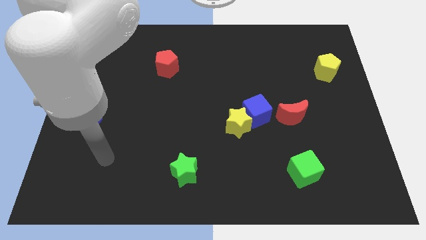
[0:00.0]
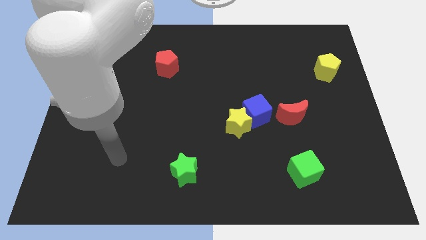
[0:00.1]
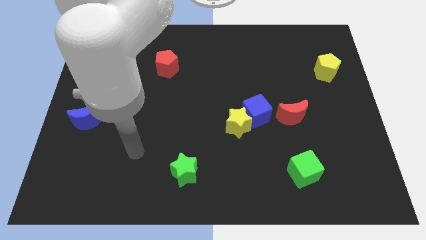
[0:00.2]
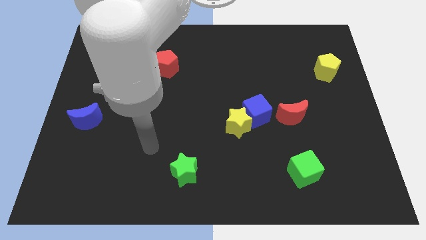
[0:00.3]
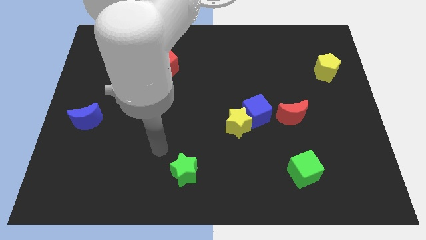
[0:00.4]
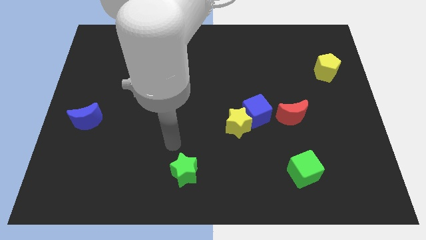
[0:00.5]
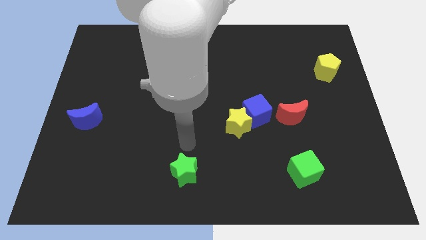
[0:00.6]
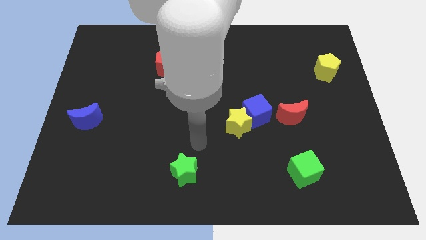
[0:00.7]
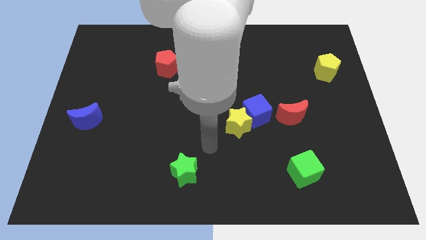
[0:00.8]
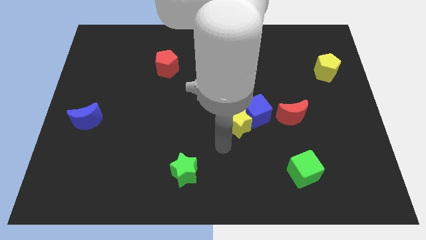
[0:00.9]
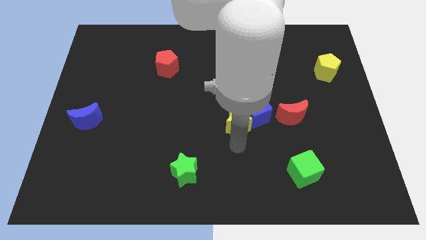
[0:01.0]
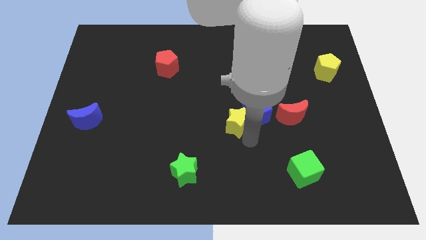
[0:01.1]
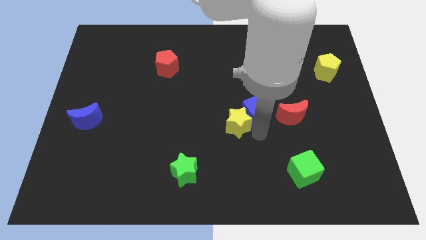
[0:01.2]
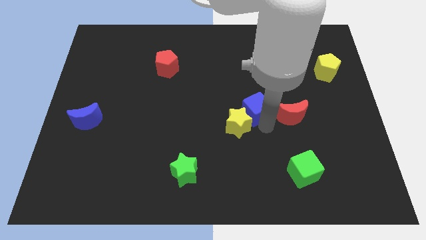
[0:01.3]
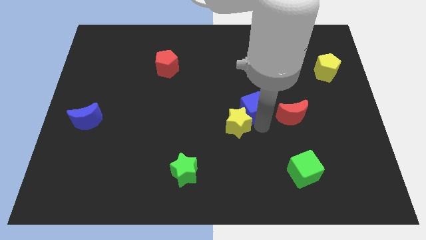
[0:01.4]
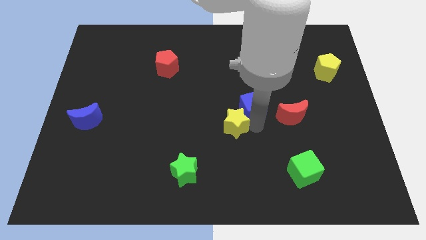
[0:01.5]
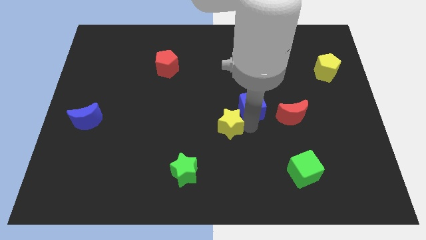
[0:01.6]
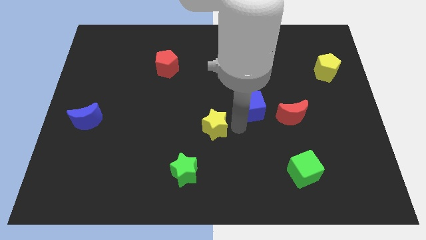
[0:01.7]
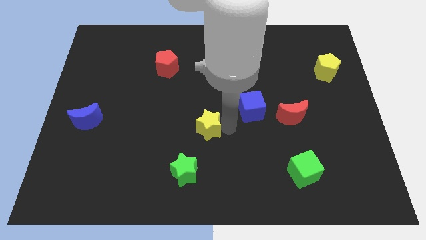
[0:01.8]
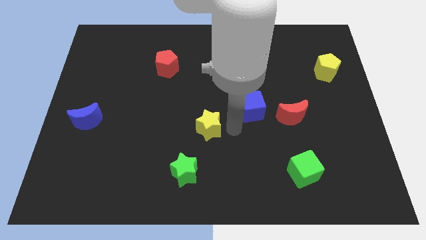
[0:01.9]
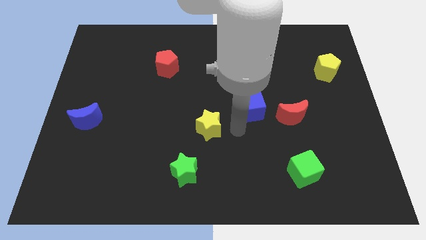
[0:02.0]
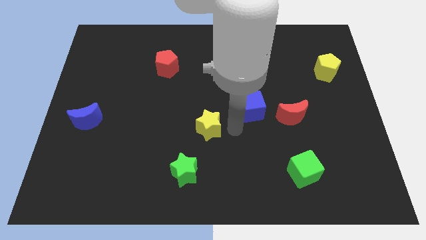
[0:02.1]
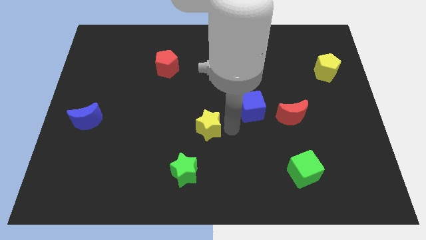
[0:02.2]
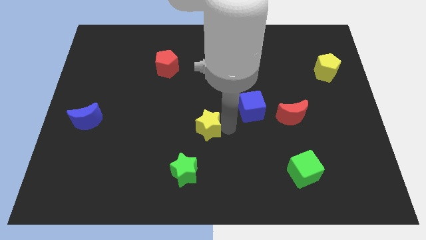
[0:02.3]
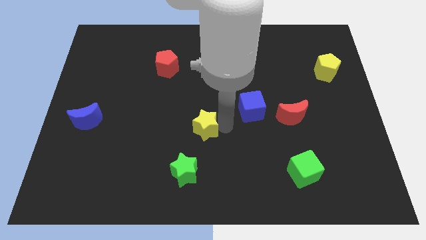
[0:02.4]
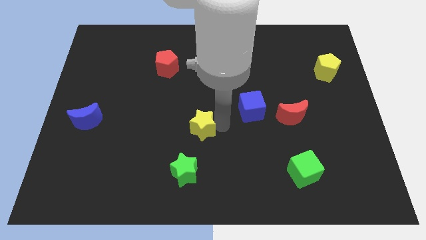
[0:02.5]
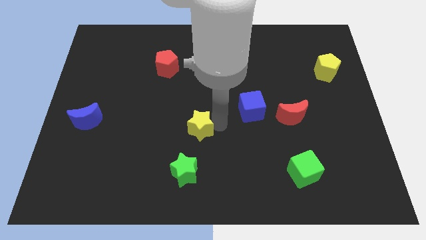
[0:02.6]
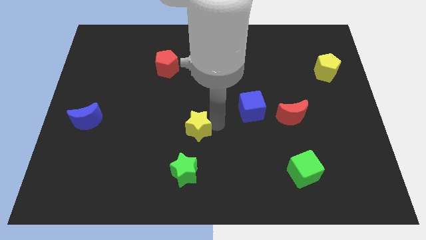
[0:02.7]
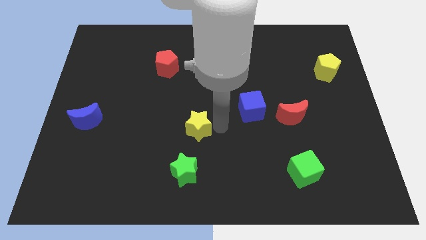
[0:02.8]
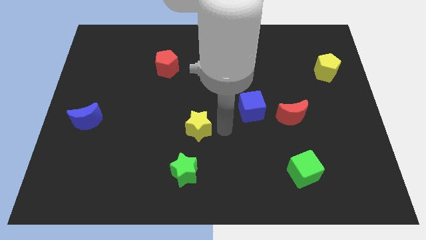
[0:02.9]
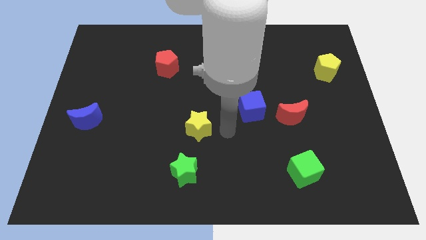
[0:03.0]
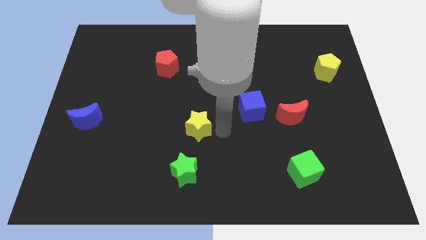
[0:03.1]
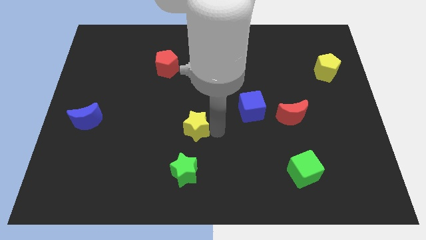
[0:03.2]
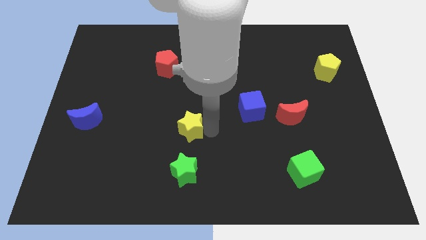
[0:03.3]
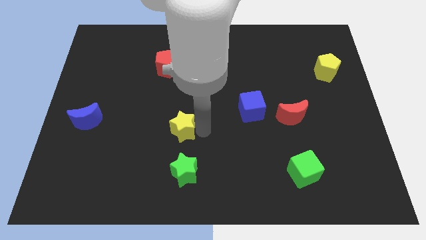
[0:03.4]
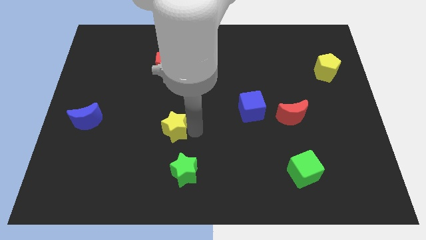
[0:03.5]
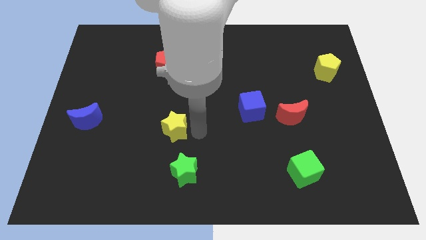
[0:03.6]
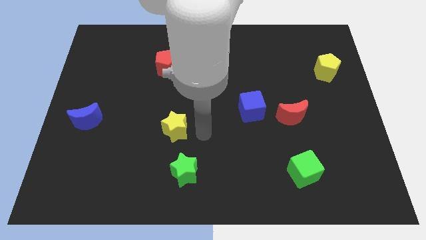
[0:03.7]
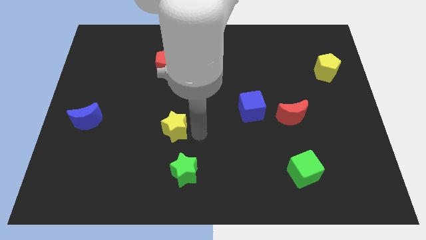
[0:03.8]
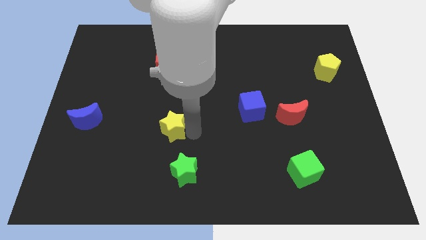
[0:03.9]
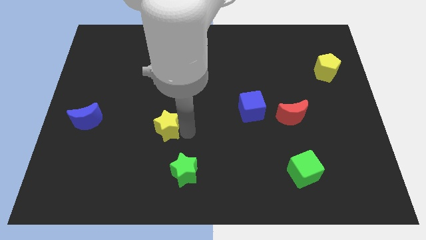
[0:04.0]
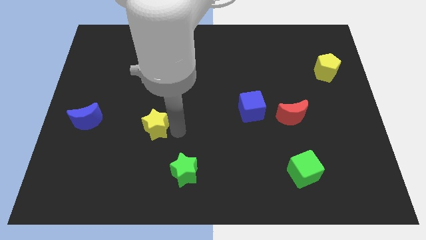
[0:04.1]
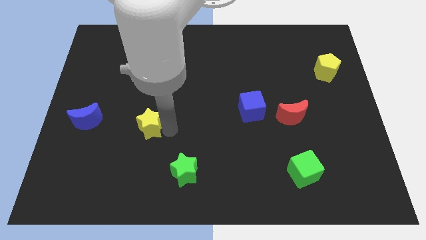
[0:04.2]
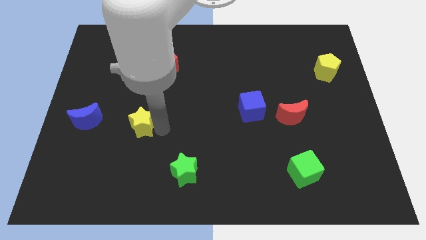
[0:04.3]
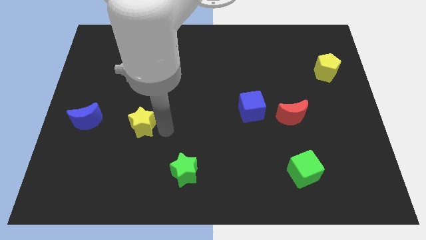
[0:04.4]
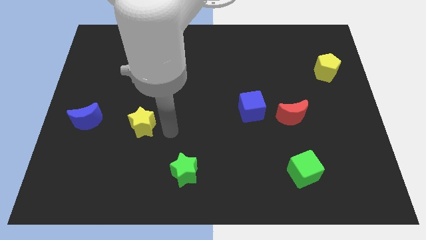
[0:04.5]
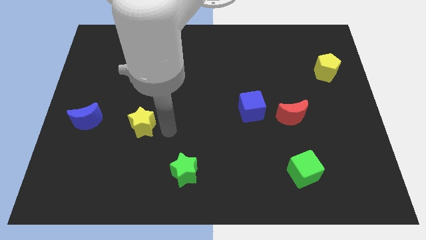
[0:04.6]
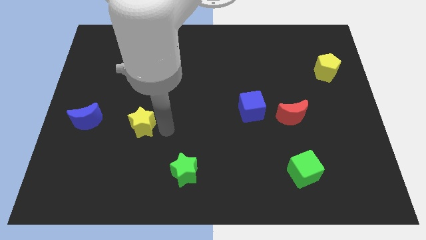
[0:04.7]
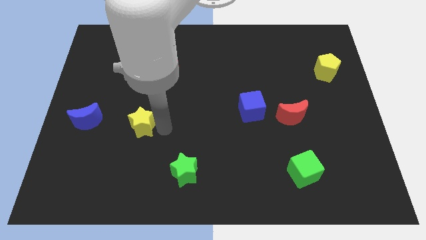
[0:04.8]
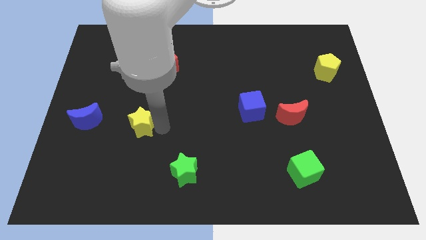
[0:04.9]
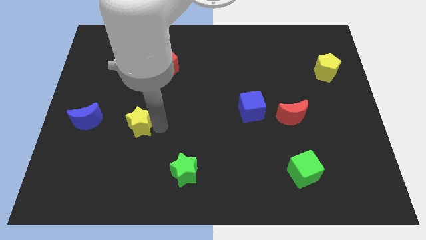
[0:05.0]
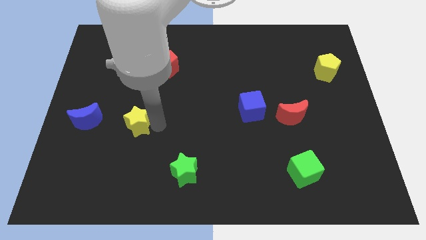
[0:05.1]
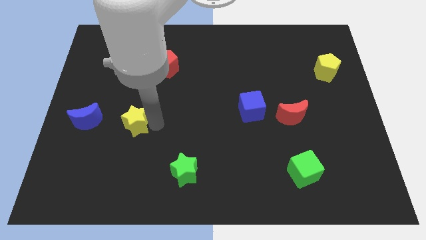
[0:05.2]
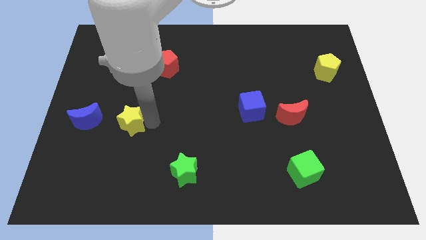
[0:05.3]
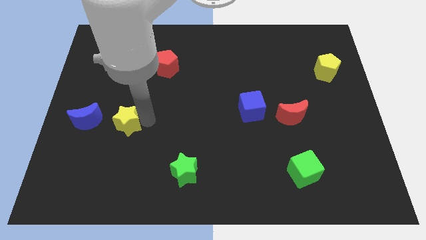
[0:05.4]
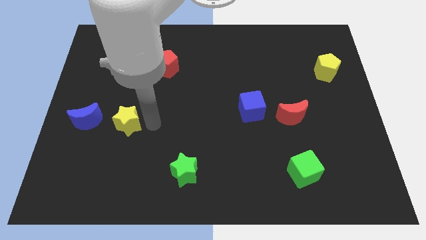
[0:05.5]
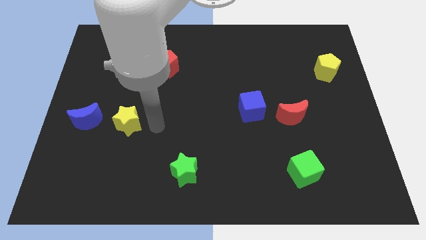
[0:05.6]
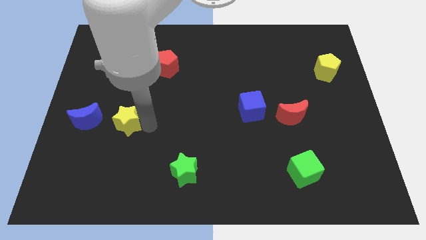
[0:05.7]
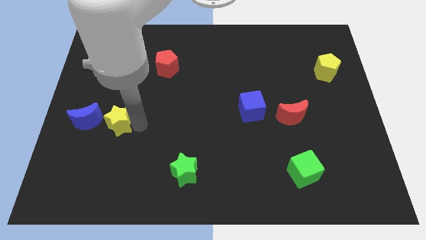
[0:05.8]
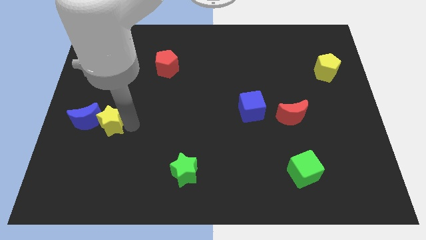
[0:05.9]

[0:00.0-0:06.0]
put the yellow star next to the blue moon

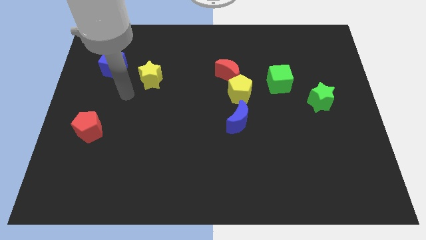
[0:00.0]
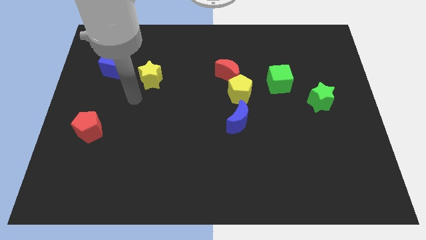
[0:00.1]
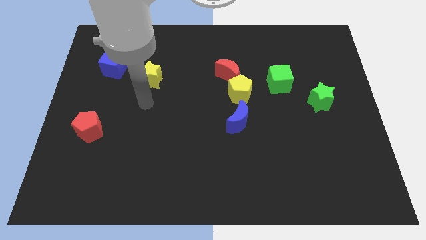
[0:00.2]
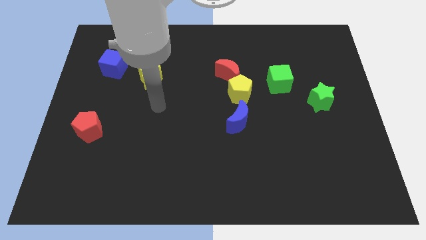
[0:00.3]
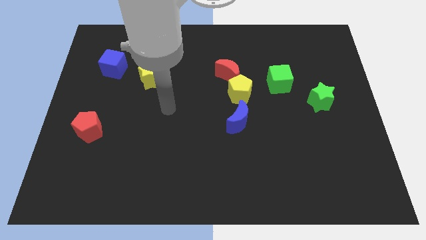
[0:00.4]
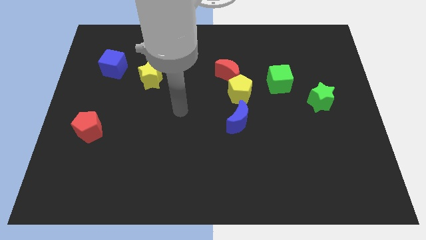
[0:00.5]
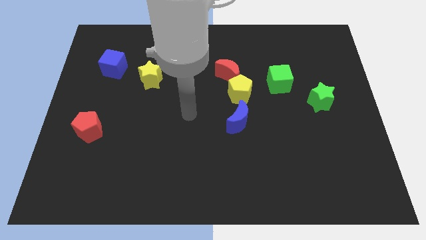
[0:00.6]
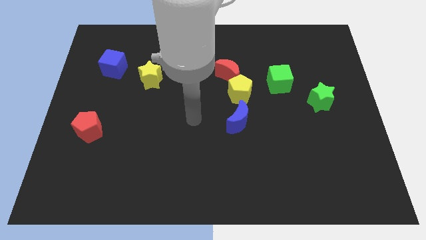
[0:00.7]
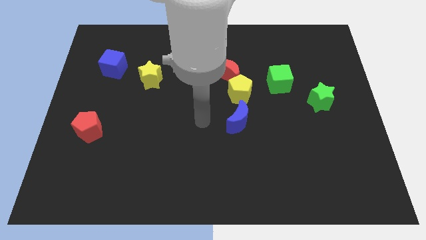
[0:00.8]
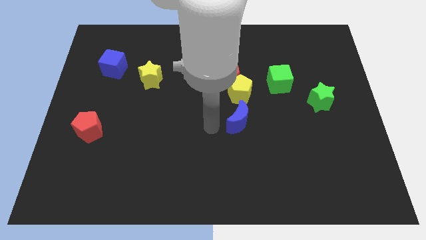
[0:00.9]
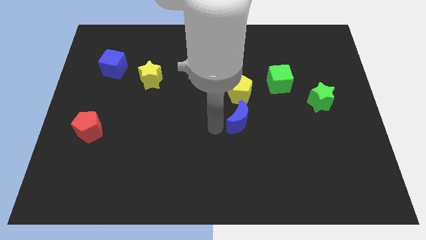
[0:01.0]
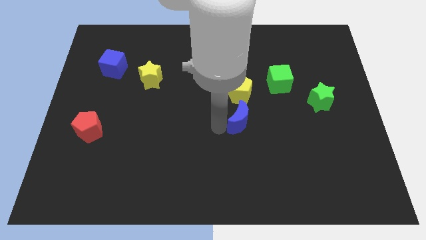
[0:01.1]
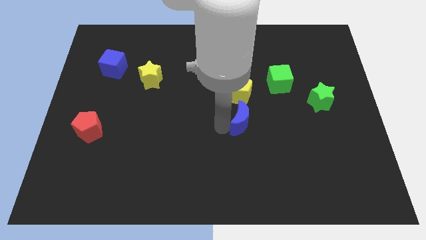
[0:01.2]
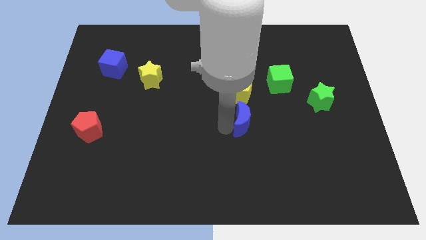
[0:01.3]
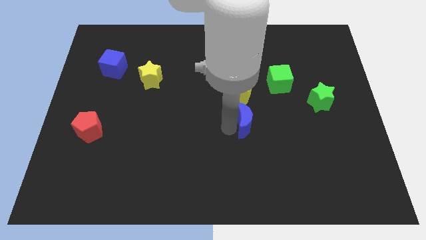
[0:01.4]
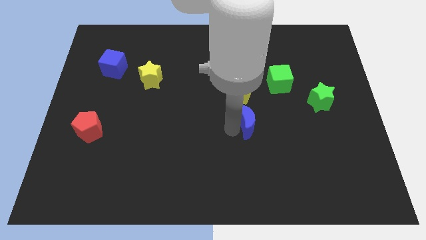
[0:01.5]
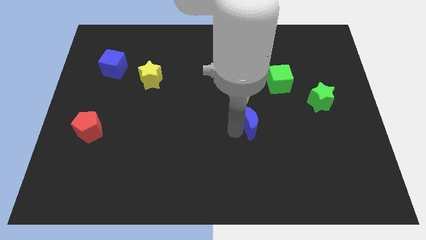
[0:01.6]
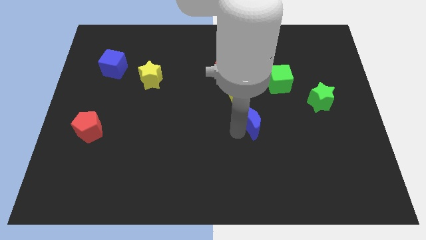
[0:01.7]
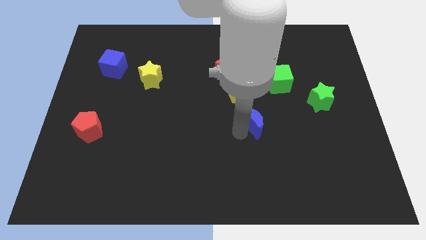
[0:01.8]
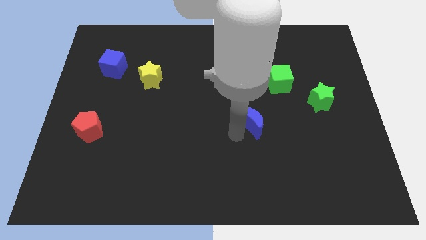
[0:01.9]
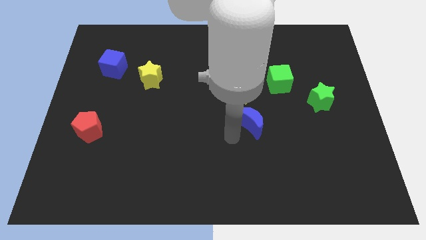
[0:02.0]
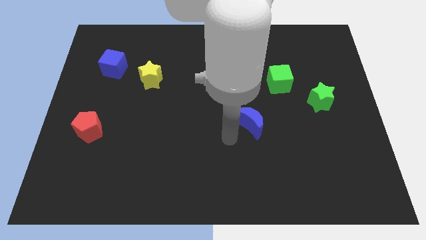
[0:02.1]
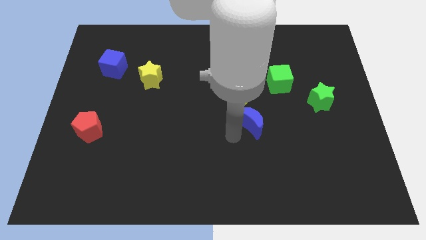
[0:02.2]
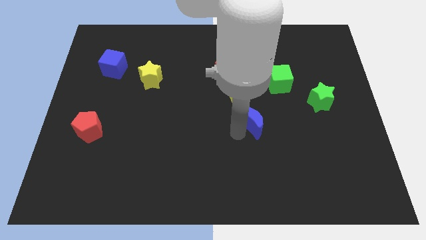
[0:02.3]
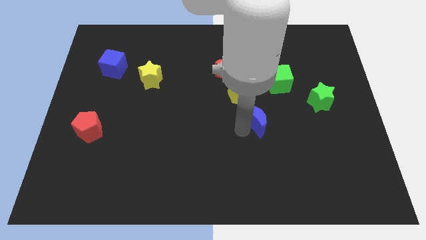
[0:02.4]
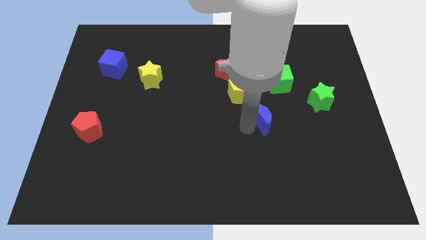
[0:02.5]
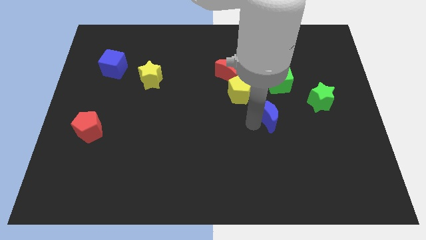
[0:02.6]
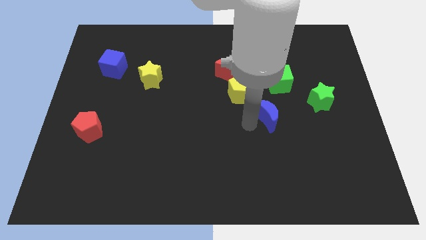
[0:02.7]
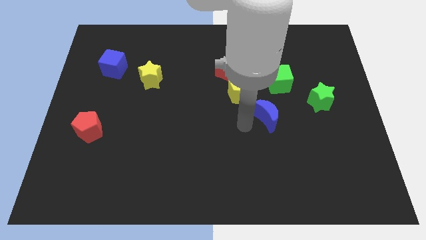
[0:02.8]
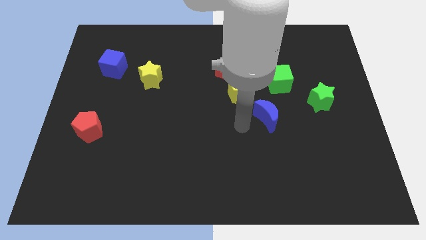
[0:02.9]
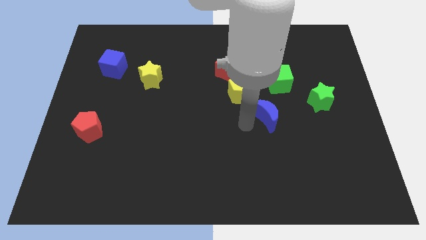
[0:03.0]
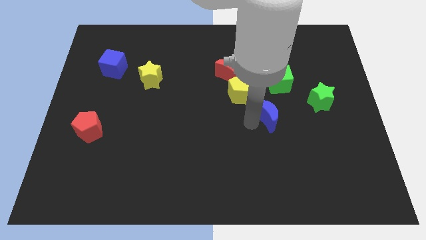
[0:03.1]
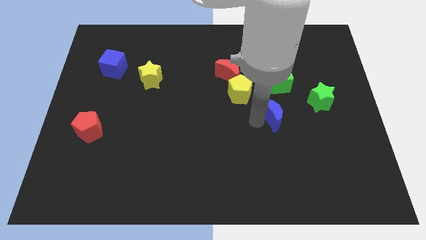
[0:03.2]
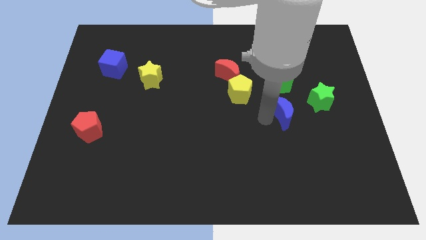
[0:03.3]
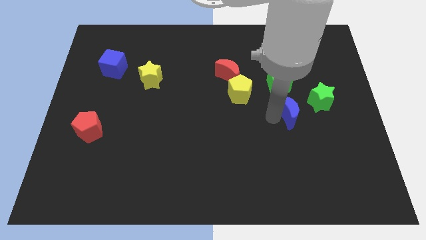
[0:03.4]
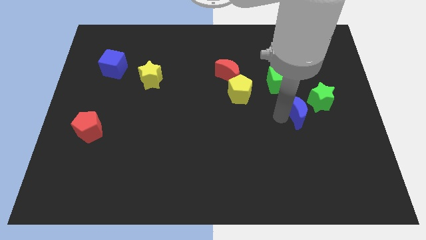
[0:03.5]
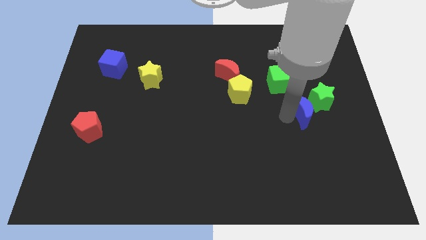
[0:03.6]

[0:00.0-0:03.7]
put the blue moon to the green star
